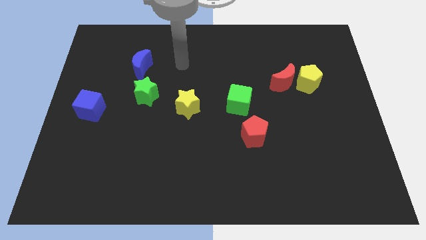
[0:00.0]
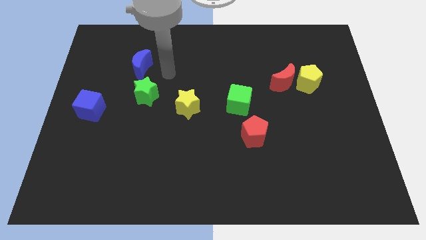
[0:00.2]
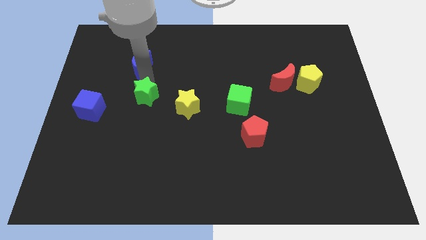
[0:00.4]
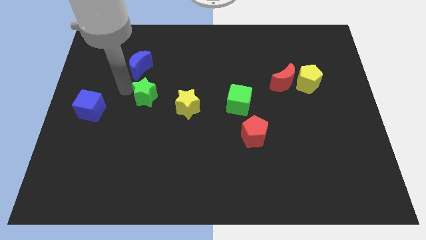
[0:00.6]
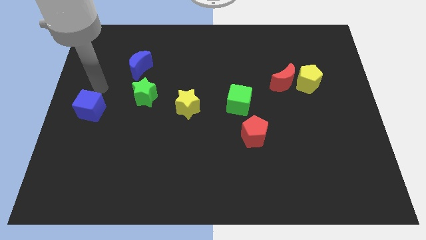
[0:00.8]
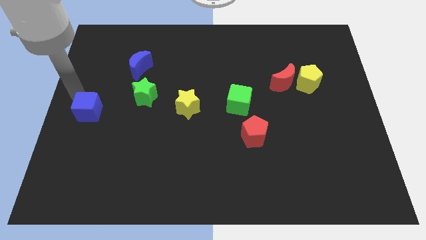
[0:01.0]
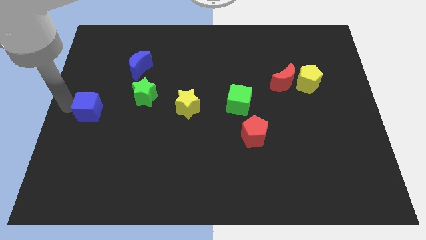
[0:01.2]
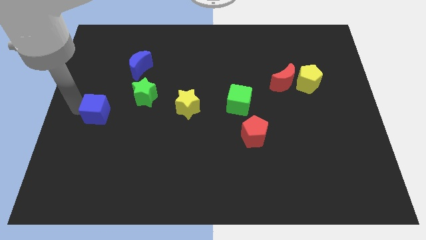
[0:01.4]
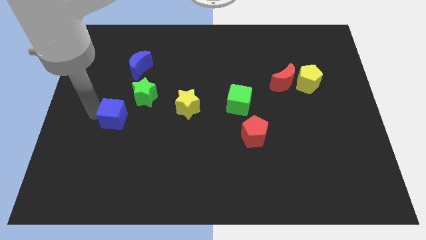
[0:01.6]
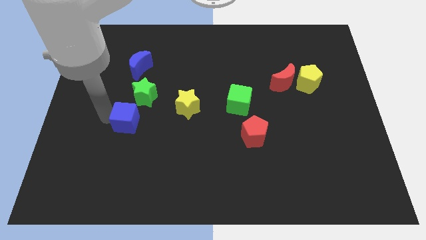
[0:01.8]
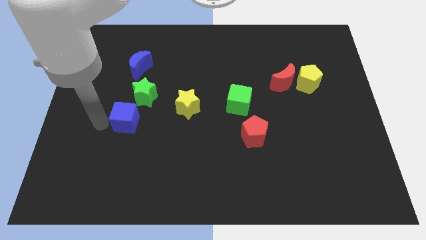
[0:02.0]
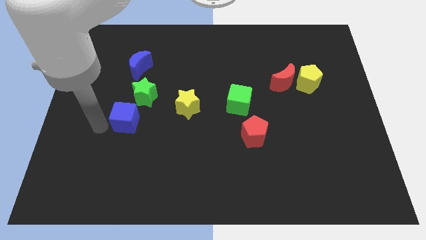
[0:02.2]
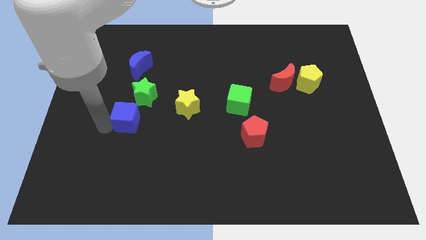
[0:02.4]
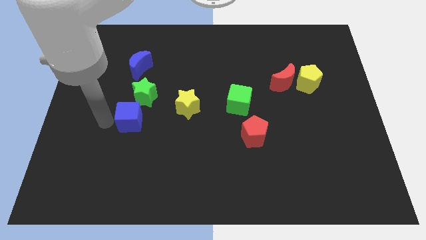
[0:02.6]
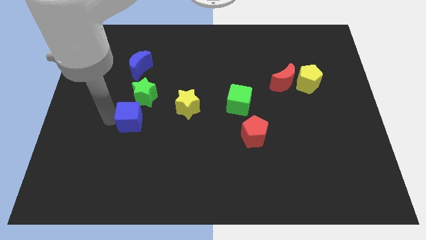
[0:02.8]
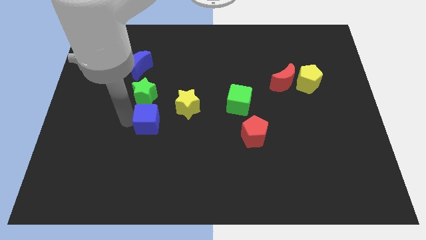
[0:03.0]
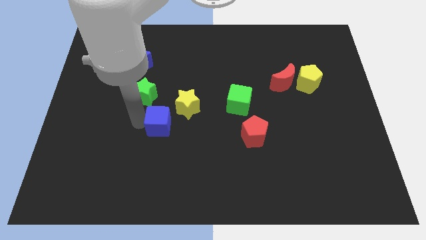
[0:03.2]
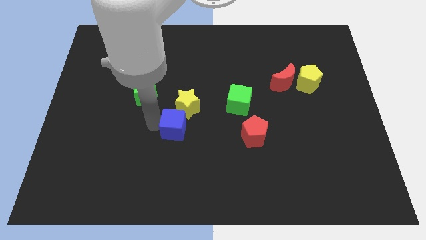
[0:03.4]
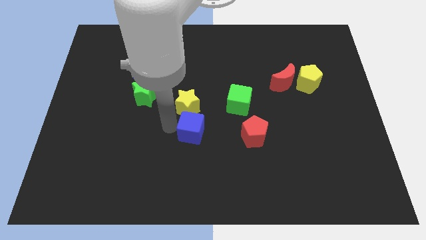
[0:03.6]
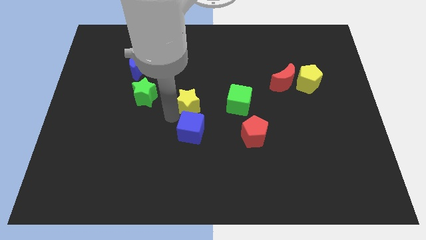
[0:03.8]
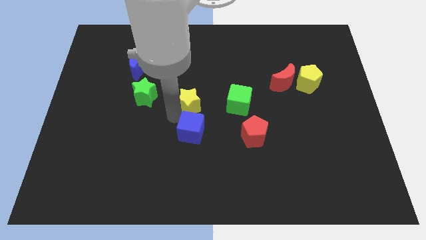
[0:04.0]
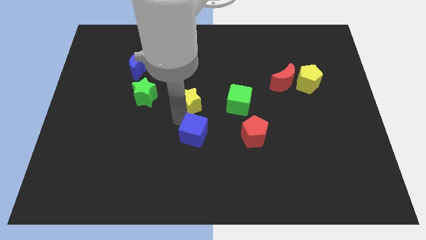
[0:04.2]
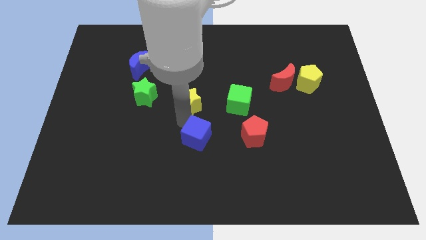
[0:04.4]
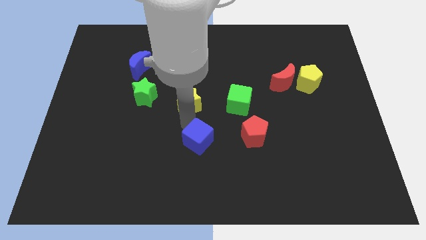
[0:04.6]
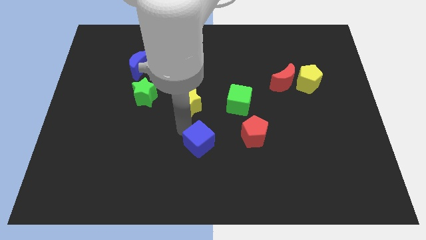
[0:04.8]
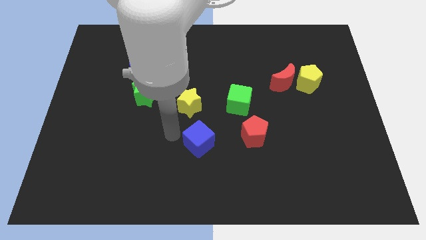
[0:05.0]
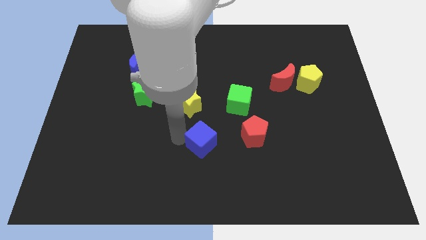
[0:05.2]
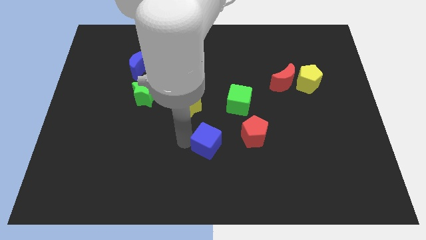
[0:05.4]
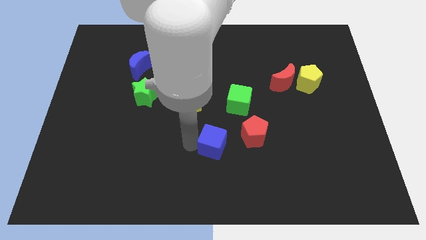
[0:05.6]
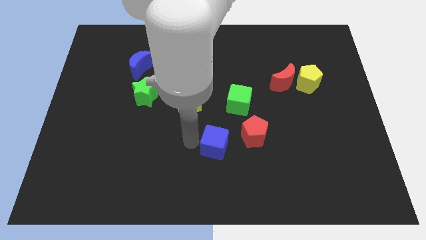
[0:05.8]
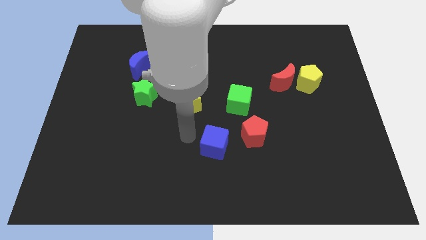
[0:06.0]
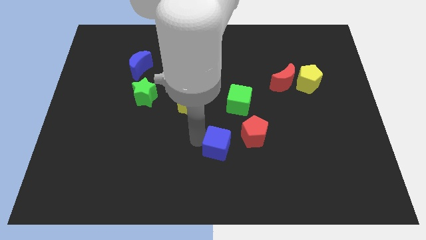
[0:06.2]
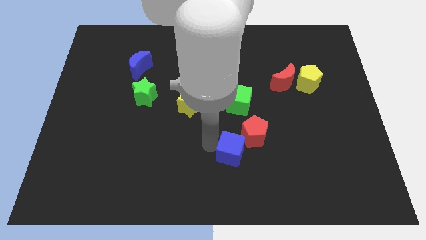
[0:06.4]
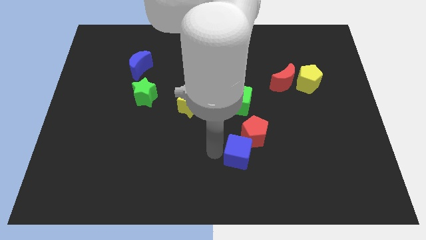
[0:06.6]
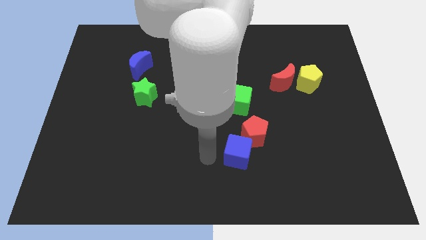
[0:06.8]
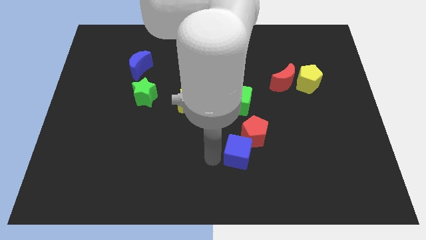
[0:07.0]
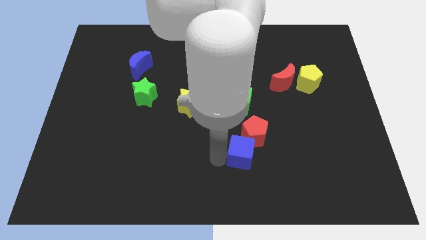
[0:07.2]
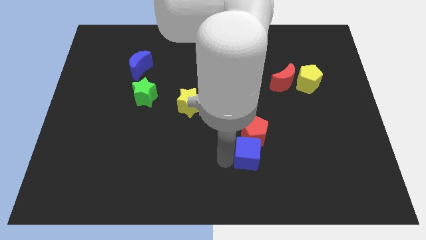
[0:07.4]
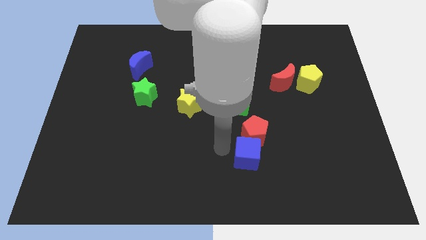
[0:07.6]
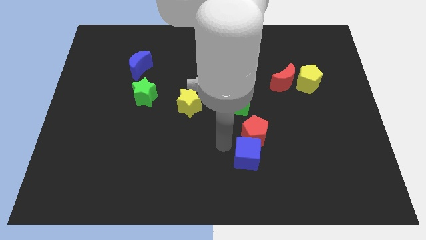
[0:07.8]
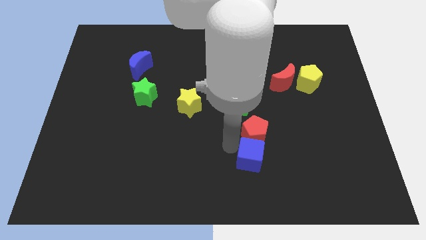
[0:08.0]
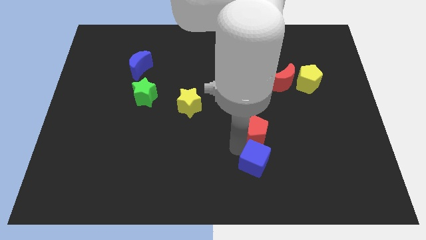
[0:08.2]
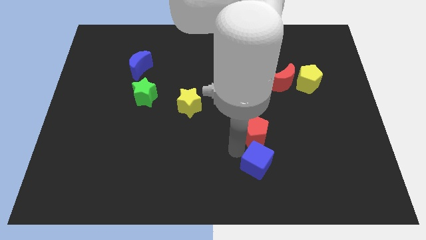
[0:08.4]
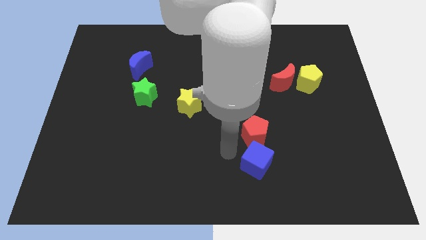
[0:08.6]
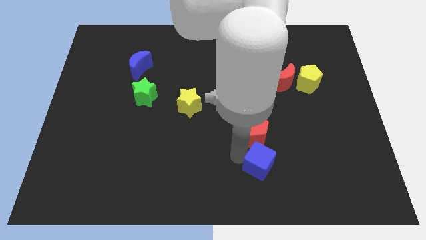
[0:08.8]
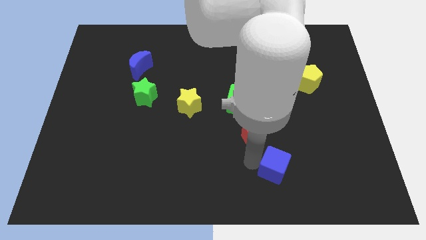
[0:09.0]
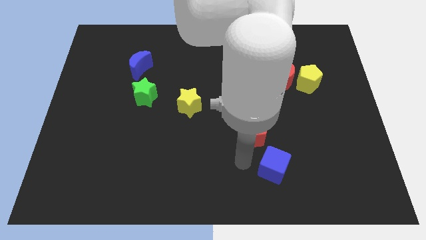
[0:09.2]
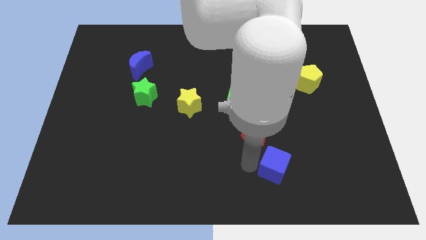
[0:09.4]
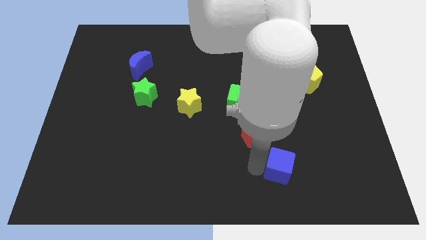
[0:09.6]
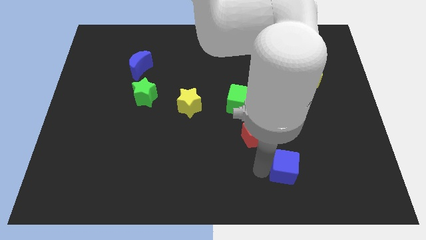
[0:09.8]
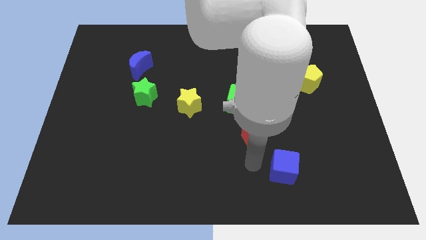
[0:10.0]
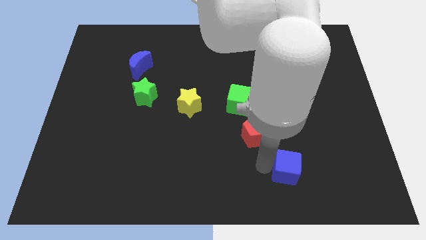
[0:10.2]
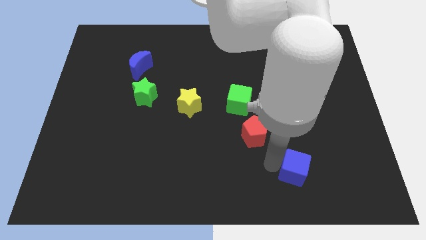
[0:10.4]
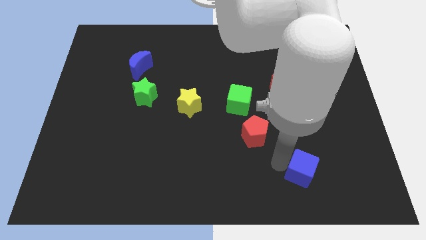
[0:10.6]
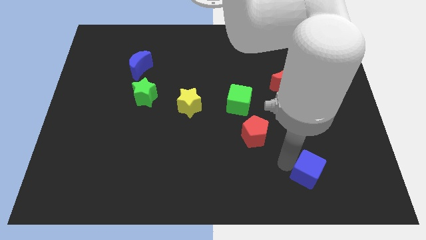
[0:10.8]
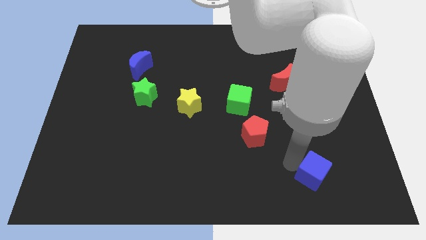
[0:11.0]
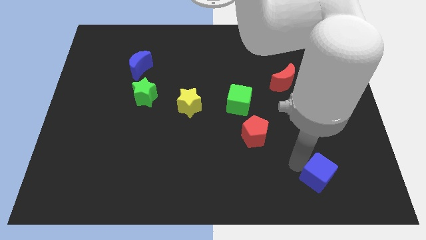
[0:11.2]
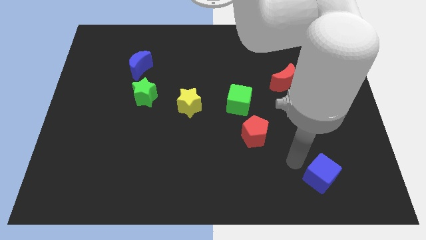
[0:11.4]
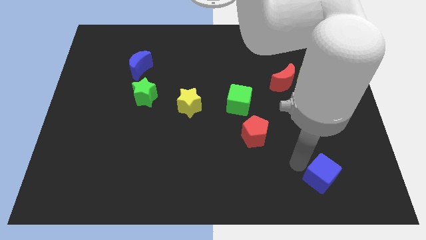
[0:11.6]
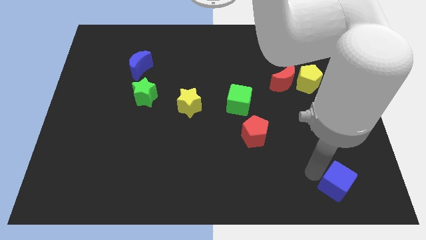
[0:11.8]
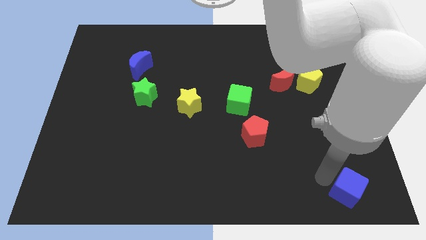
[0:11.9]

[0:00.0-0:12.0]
push the blue cube to the bottom right

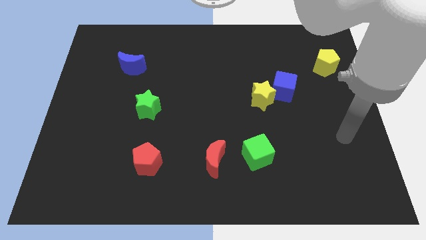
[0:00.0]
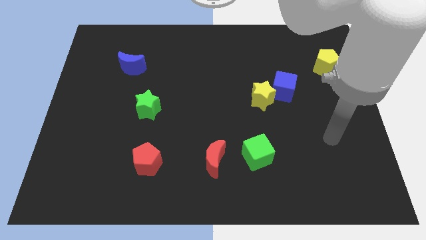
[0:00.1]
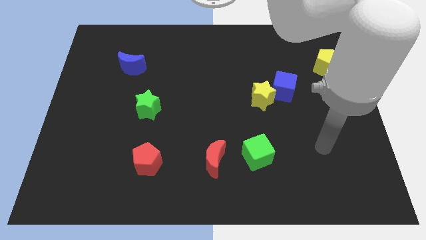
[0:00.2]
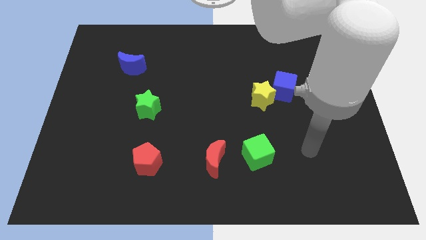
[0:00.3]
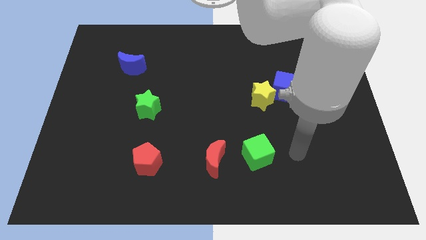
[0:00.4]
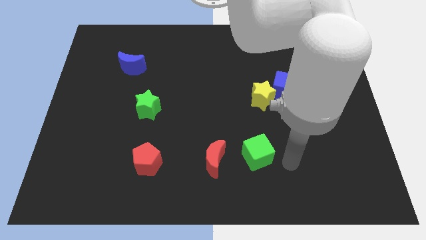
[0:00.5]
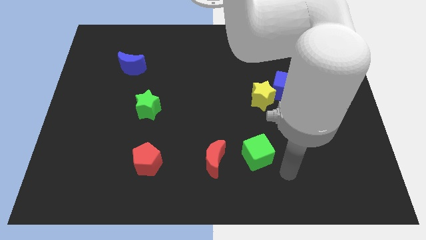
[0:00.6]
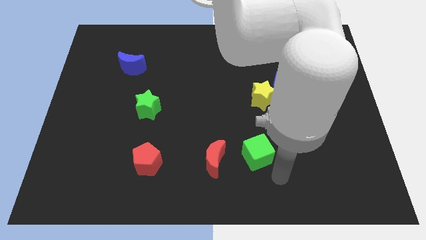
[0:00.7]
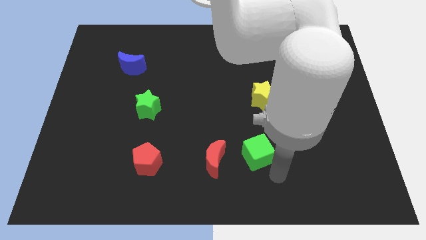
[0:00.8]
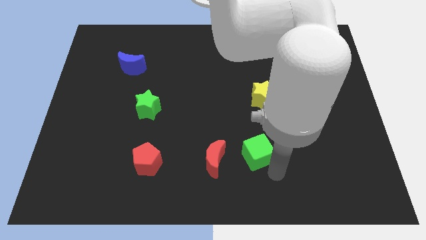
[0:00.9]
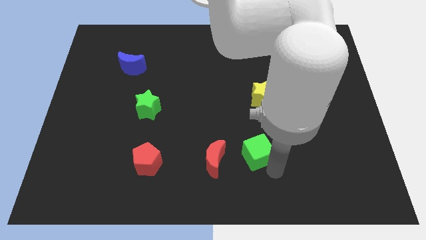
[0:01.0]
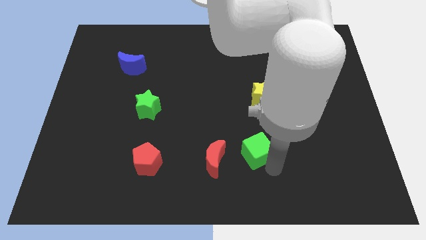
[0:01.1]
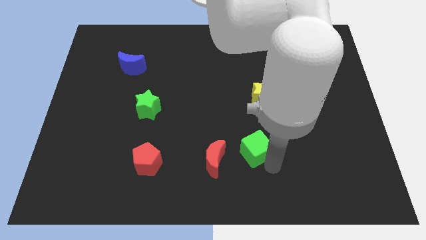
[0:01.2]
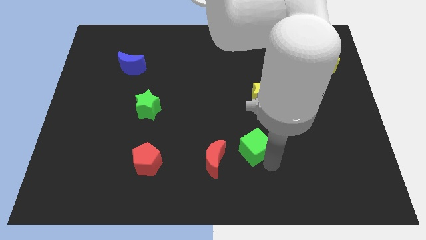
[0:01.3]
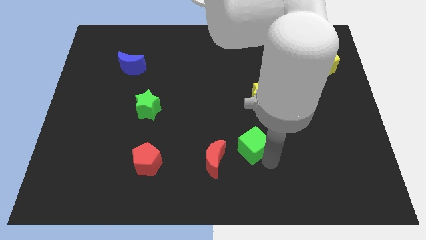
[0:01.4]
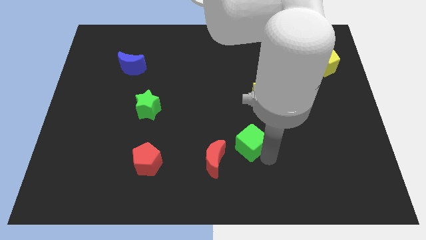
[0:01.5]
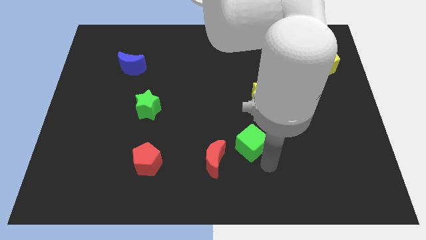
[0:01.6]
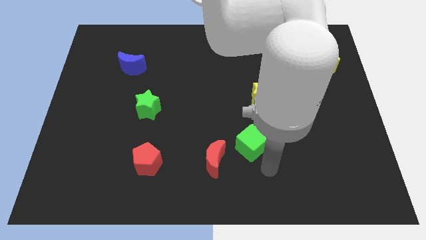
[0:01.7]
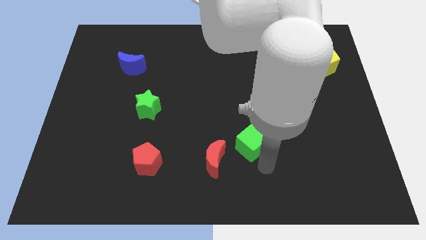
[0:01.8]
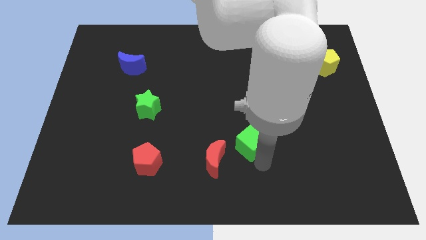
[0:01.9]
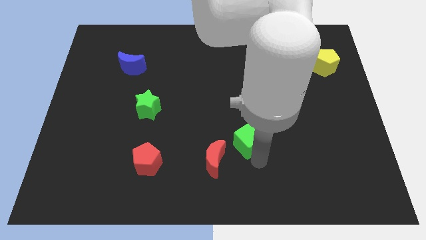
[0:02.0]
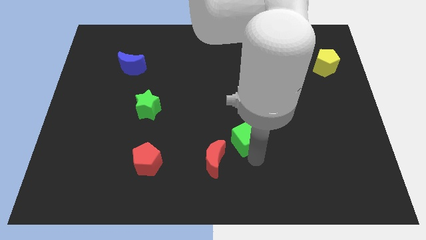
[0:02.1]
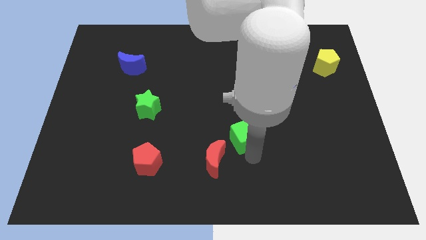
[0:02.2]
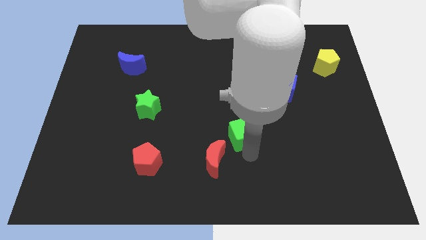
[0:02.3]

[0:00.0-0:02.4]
move the green cube to the center of the board
